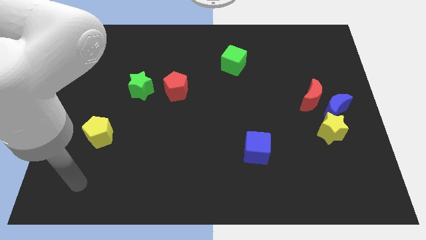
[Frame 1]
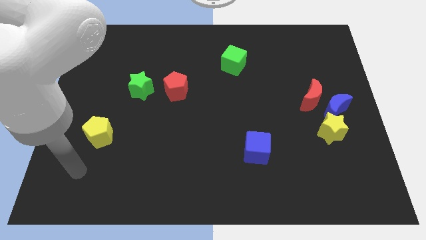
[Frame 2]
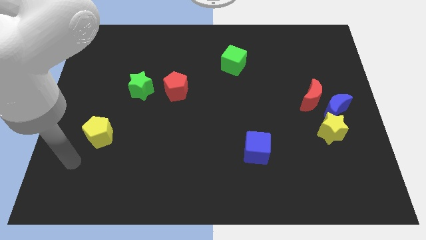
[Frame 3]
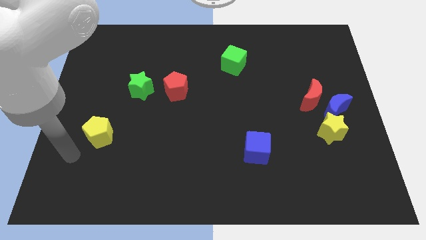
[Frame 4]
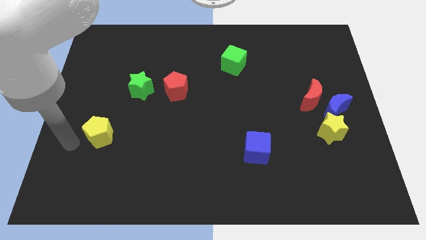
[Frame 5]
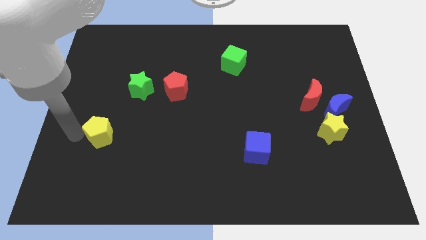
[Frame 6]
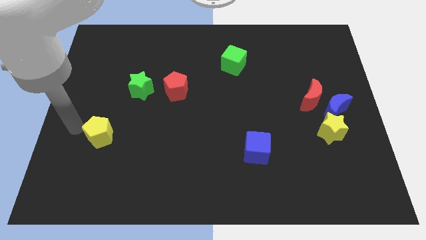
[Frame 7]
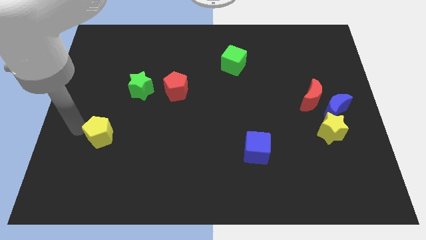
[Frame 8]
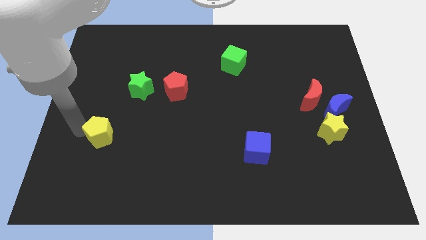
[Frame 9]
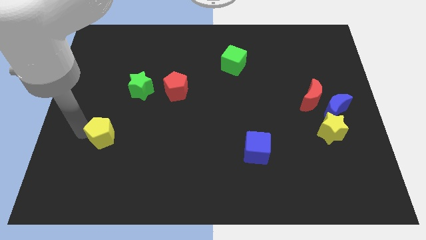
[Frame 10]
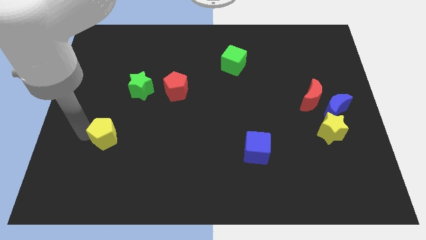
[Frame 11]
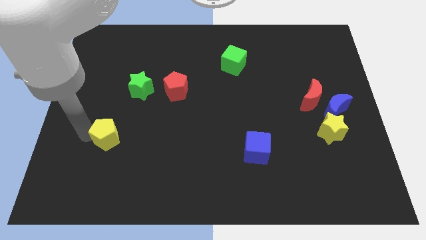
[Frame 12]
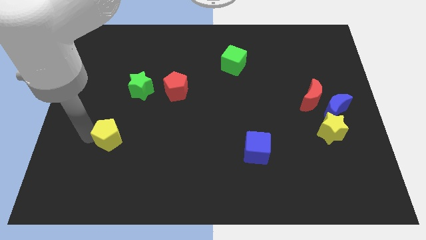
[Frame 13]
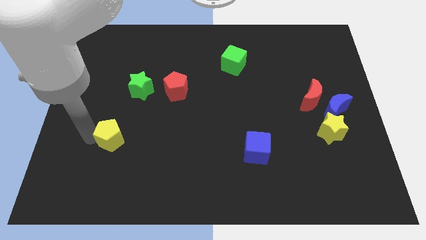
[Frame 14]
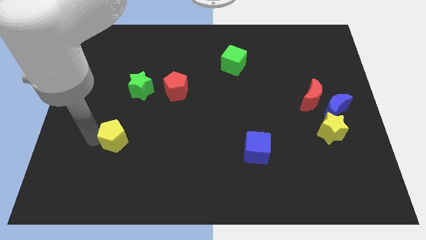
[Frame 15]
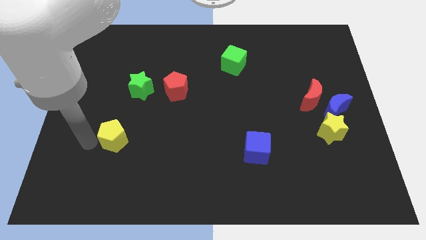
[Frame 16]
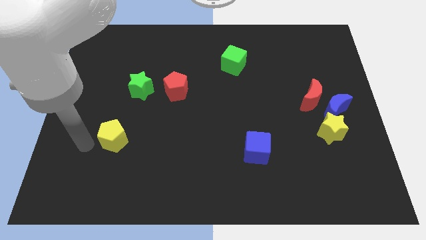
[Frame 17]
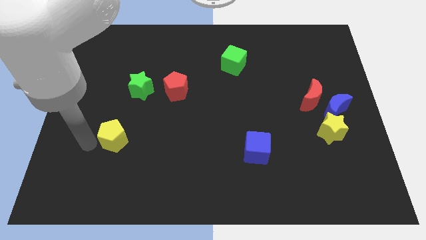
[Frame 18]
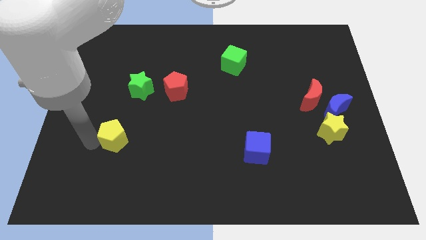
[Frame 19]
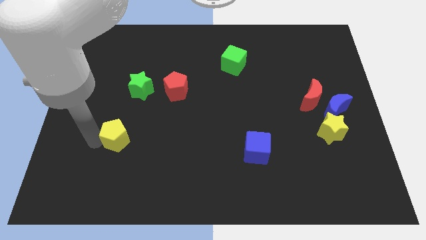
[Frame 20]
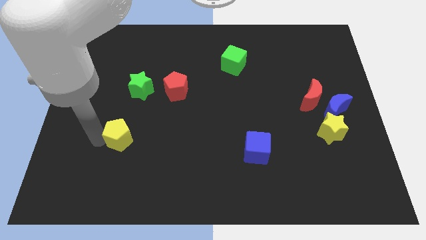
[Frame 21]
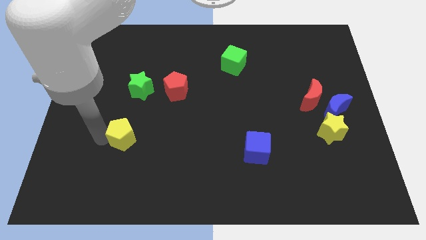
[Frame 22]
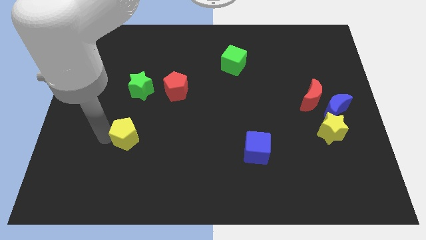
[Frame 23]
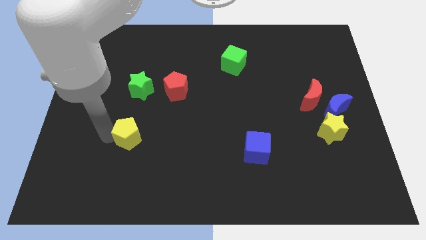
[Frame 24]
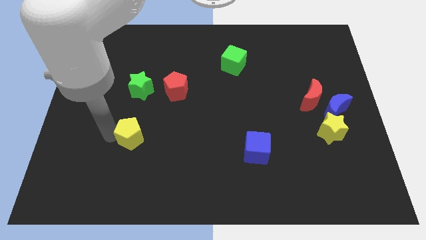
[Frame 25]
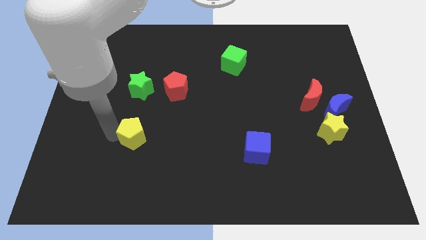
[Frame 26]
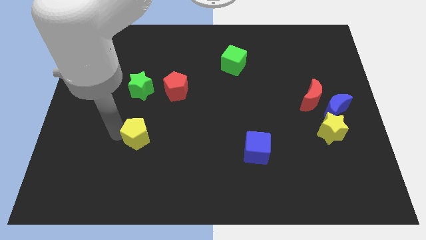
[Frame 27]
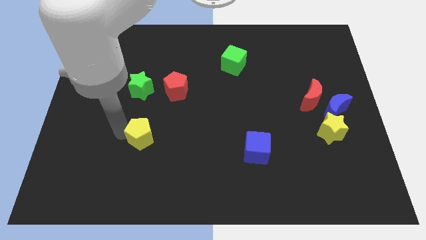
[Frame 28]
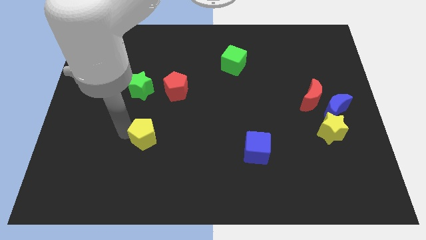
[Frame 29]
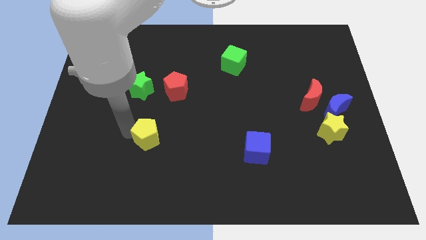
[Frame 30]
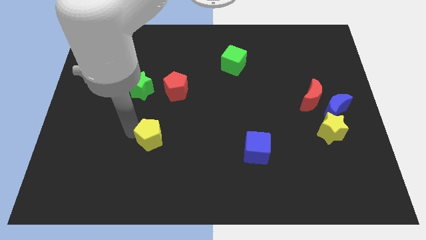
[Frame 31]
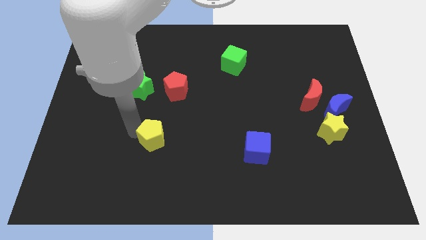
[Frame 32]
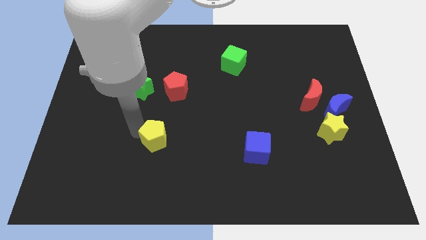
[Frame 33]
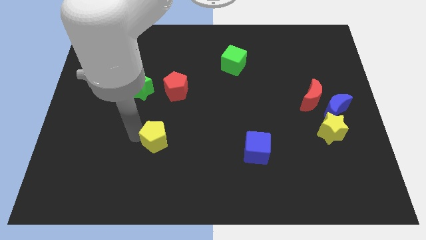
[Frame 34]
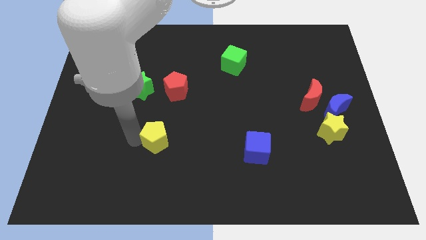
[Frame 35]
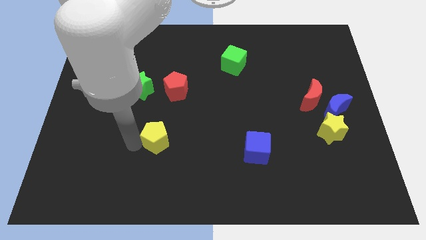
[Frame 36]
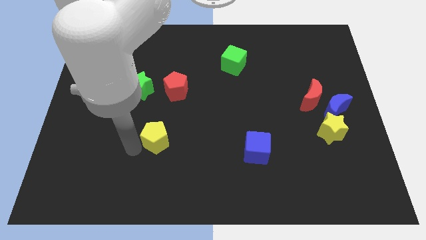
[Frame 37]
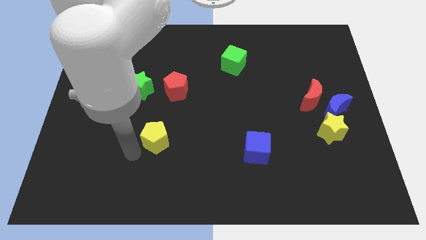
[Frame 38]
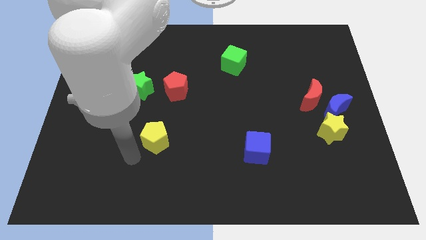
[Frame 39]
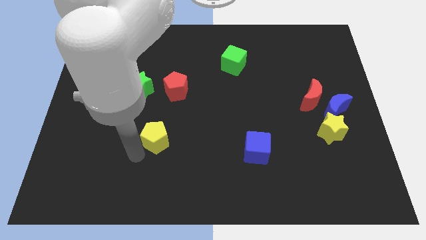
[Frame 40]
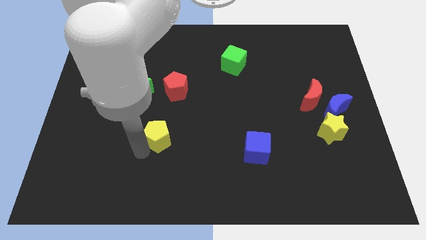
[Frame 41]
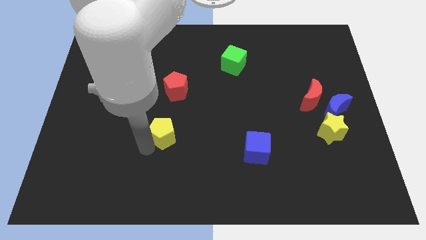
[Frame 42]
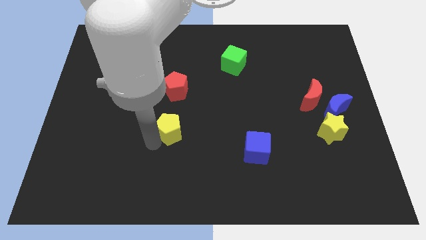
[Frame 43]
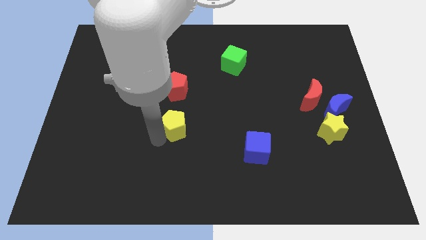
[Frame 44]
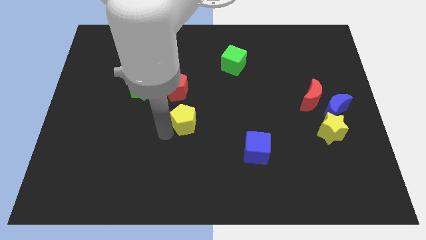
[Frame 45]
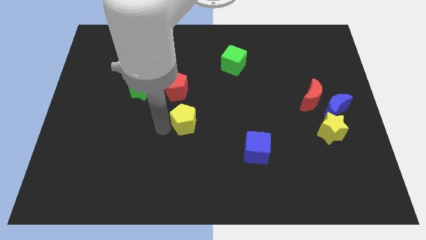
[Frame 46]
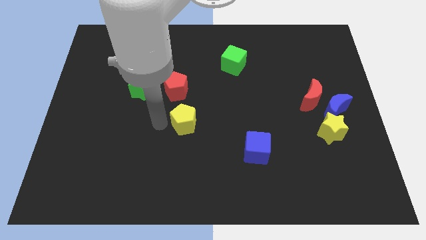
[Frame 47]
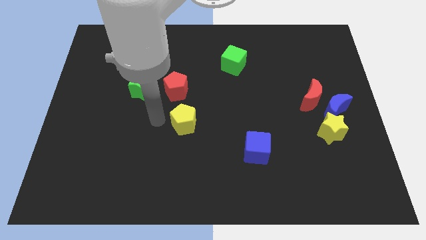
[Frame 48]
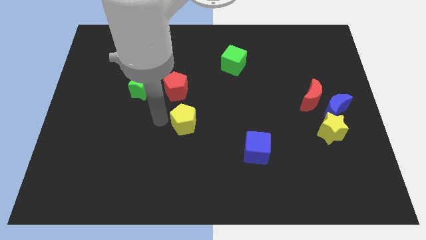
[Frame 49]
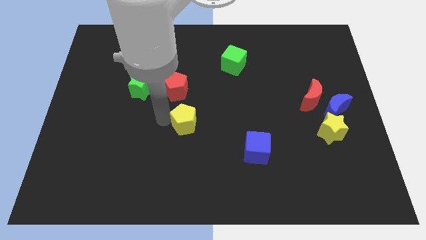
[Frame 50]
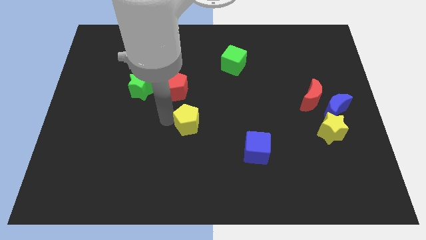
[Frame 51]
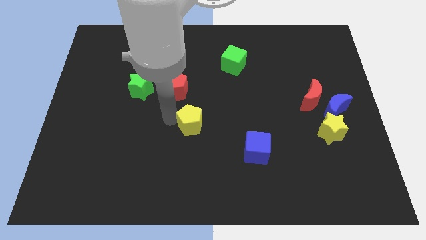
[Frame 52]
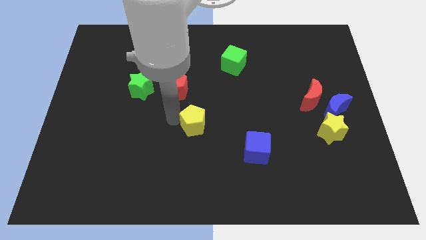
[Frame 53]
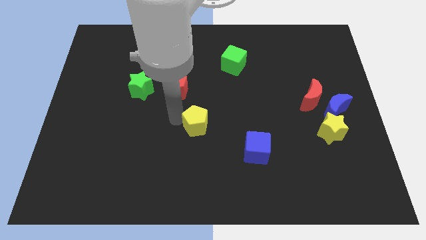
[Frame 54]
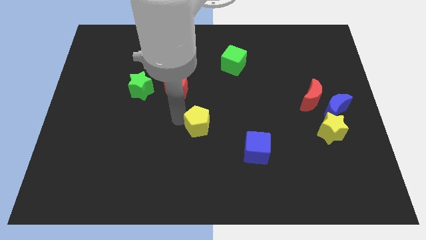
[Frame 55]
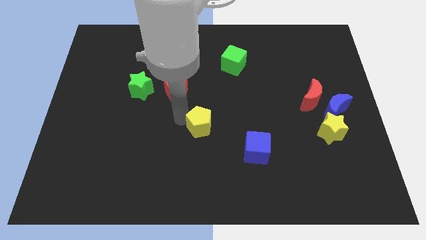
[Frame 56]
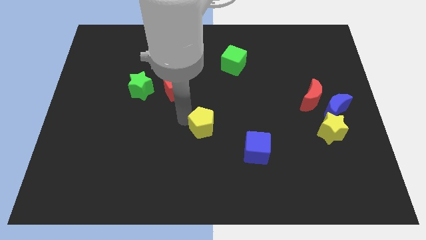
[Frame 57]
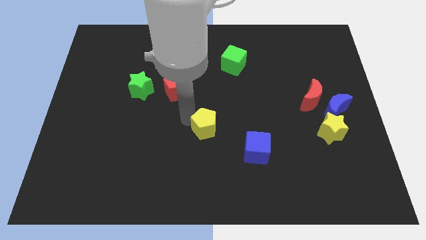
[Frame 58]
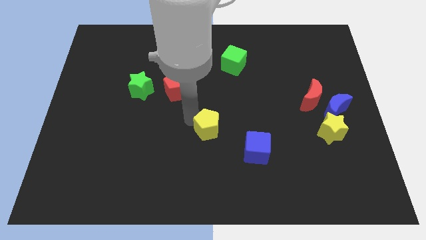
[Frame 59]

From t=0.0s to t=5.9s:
slide the yellow pentagon to the top left of the blue cube

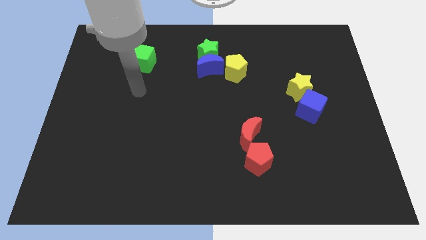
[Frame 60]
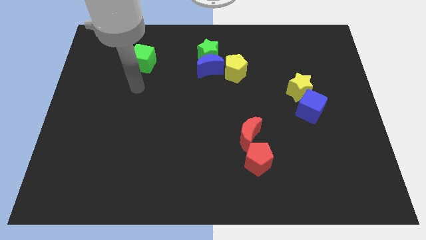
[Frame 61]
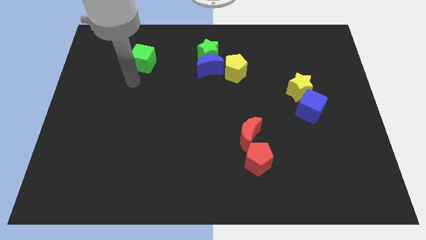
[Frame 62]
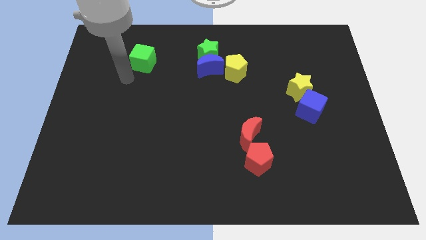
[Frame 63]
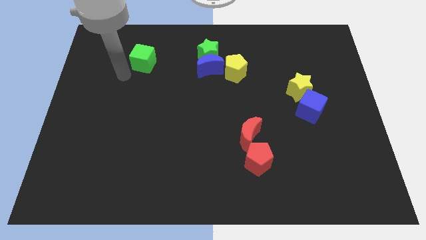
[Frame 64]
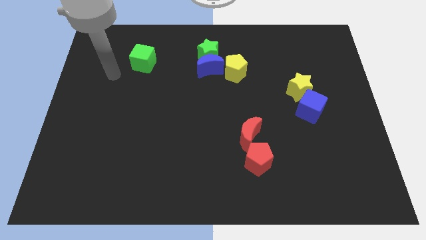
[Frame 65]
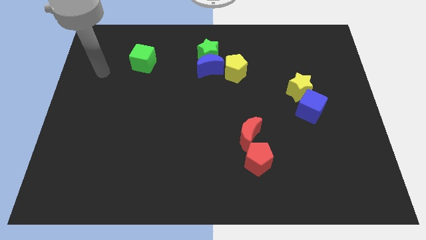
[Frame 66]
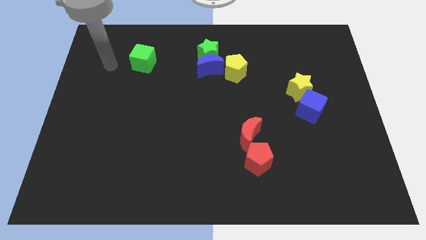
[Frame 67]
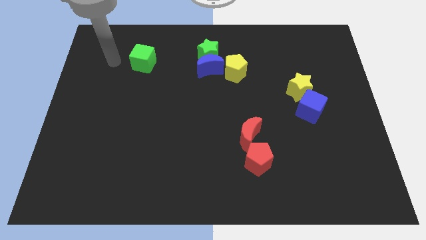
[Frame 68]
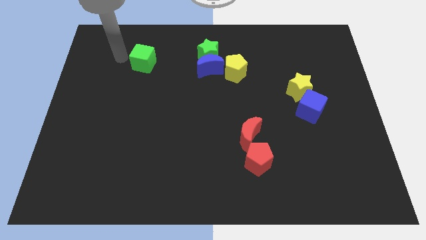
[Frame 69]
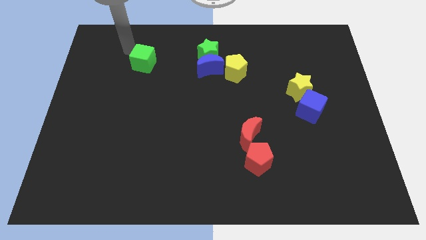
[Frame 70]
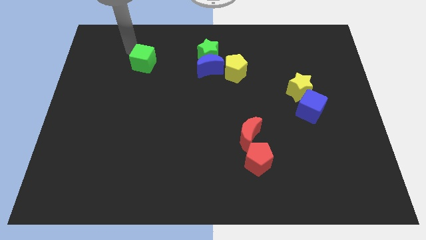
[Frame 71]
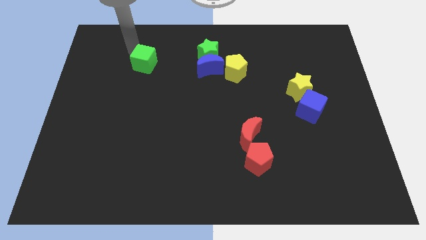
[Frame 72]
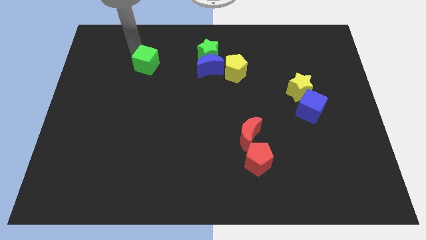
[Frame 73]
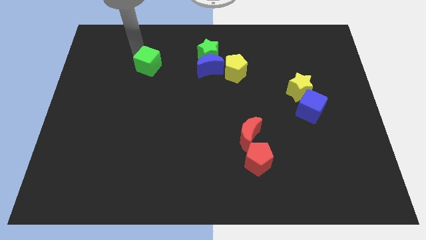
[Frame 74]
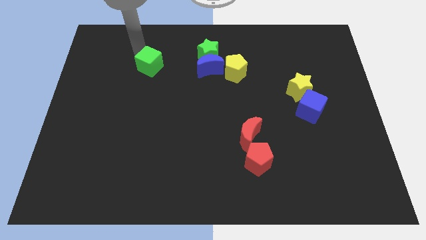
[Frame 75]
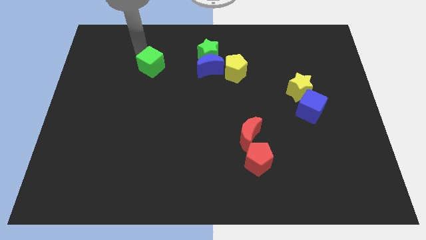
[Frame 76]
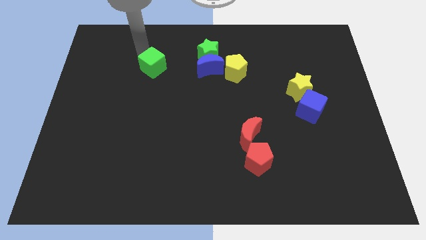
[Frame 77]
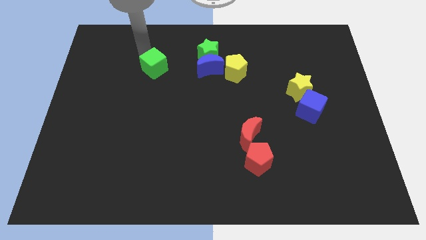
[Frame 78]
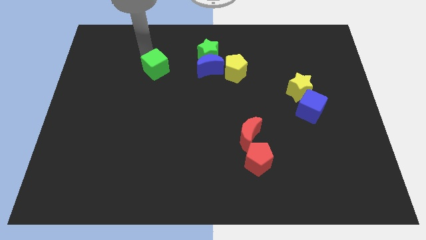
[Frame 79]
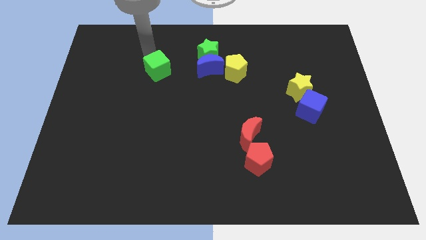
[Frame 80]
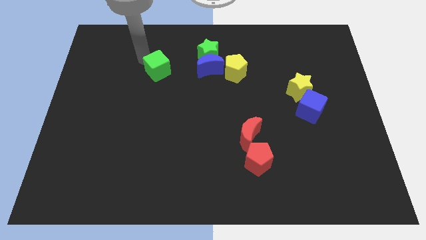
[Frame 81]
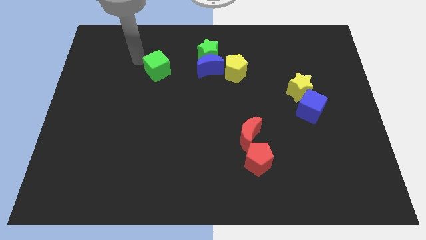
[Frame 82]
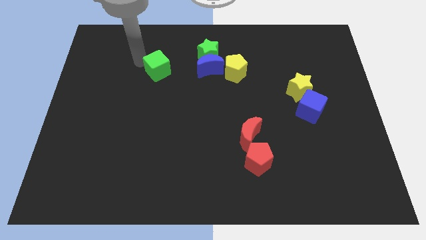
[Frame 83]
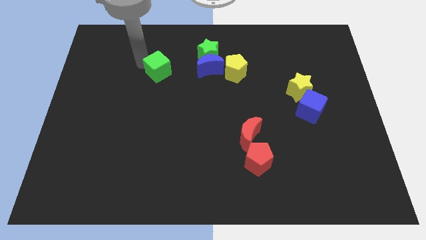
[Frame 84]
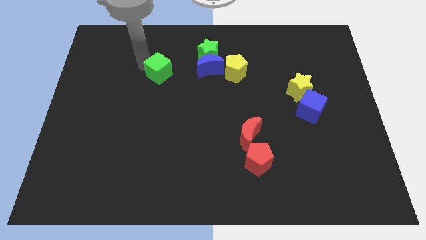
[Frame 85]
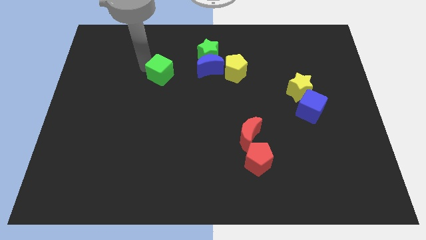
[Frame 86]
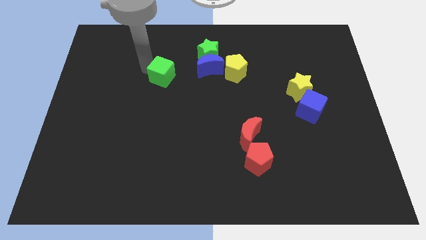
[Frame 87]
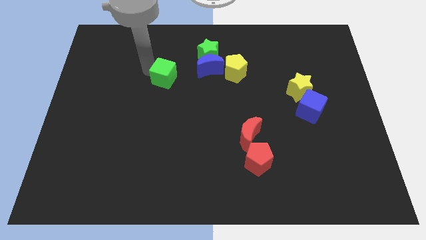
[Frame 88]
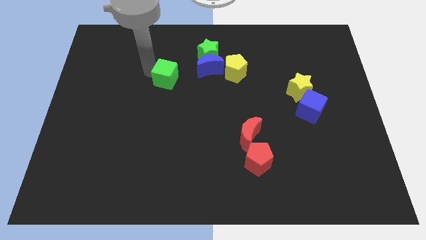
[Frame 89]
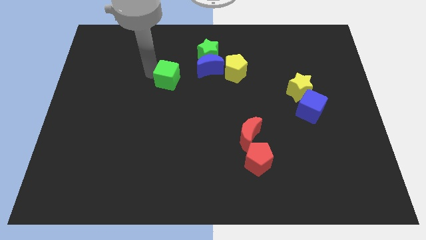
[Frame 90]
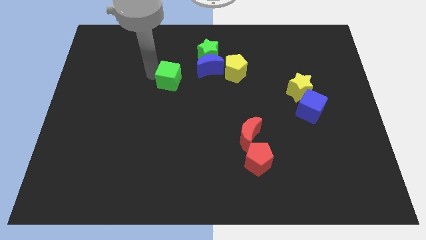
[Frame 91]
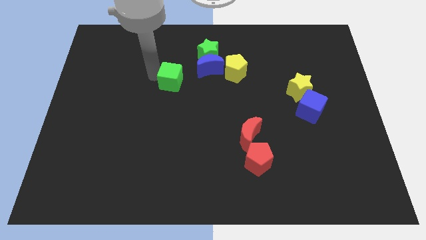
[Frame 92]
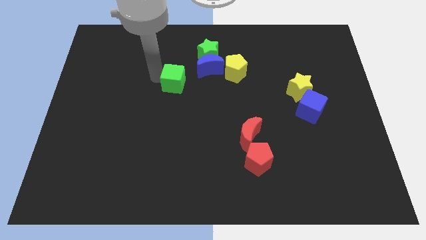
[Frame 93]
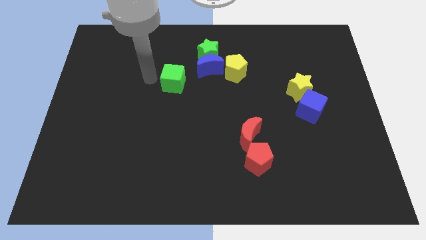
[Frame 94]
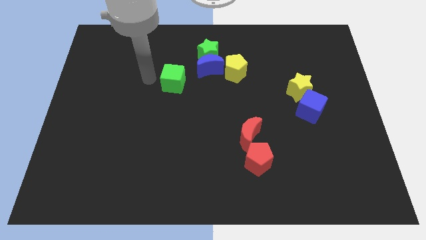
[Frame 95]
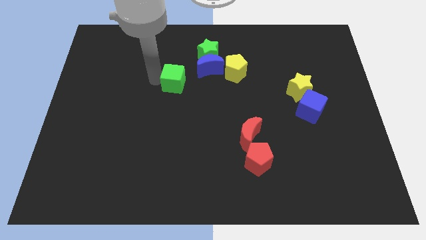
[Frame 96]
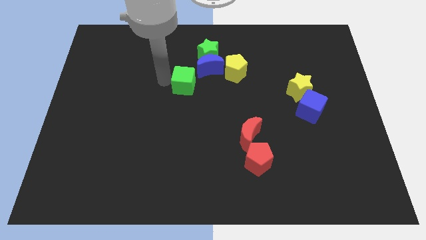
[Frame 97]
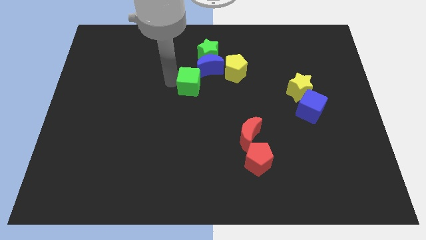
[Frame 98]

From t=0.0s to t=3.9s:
move the green cube to the bottom side of the green star
